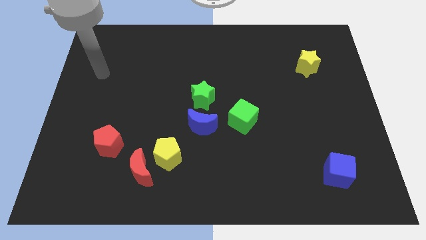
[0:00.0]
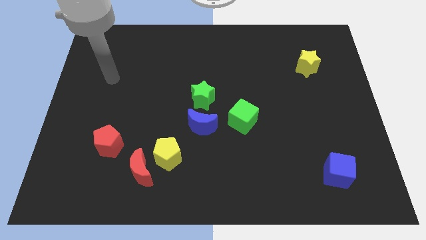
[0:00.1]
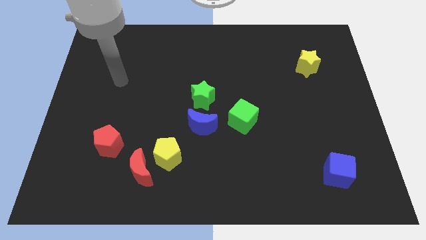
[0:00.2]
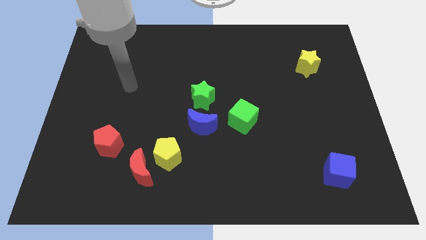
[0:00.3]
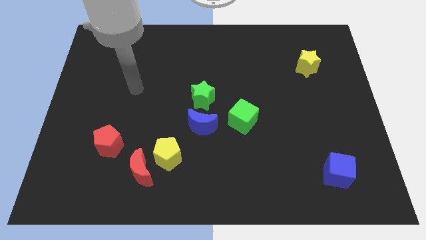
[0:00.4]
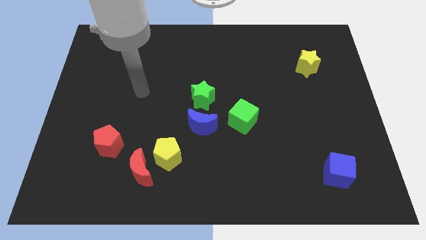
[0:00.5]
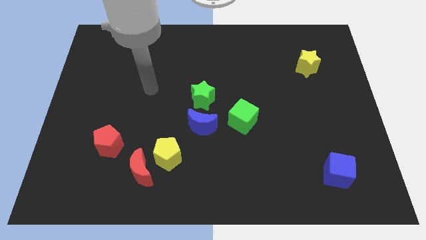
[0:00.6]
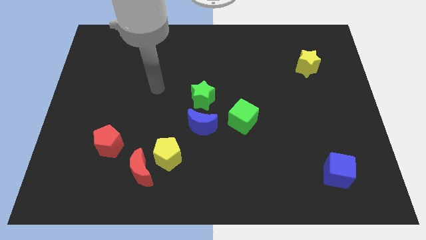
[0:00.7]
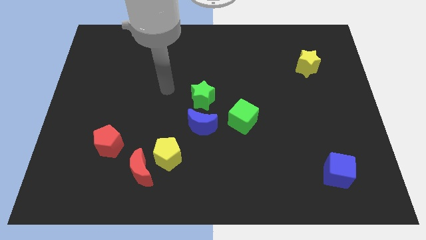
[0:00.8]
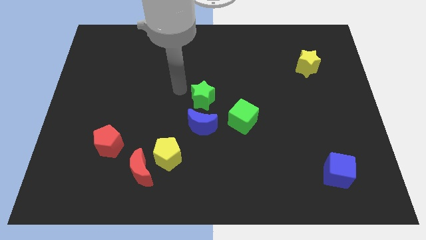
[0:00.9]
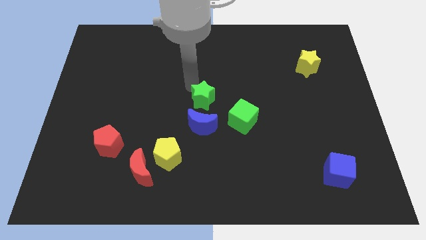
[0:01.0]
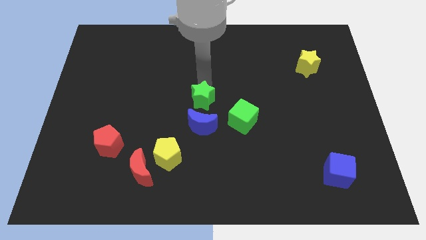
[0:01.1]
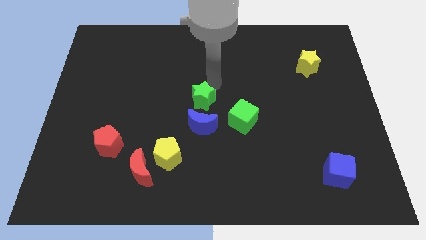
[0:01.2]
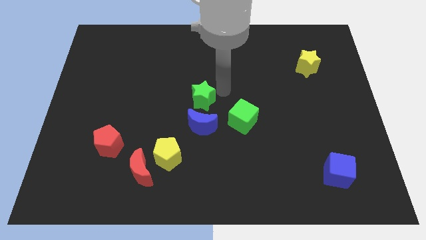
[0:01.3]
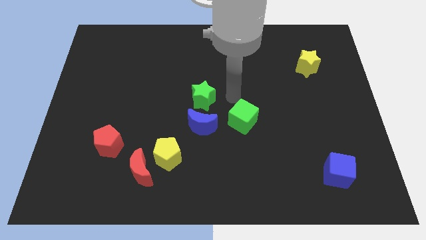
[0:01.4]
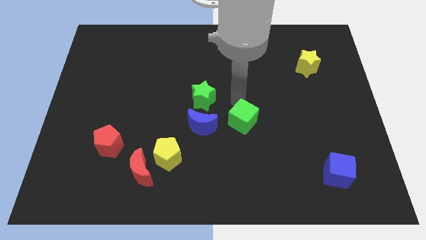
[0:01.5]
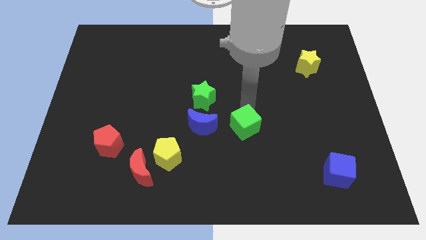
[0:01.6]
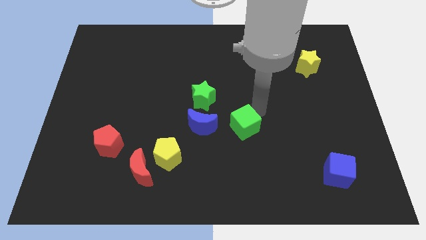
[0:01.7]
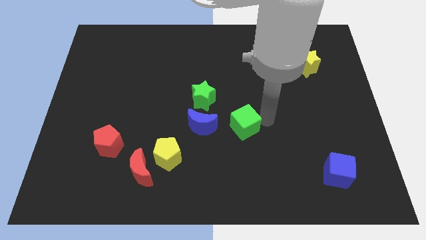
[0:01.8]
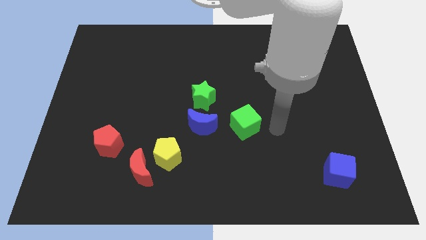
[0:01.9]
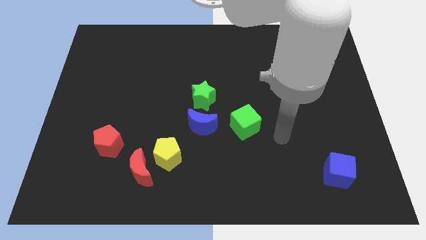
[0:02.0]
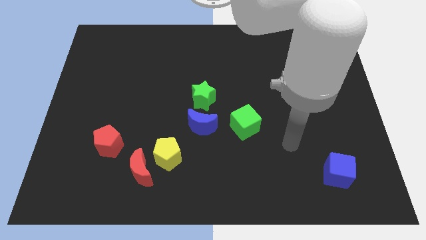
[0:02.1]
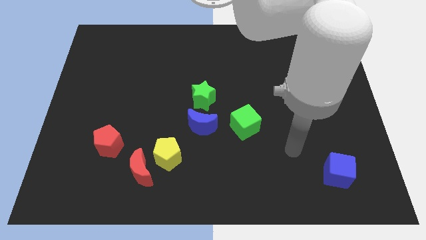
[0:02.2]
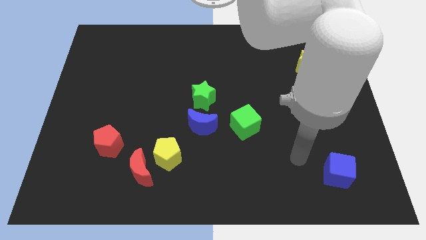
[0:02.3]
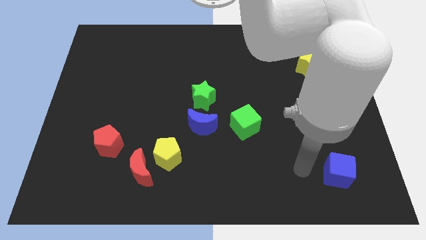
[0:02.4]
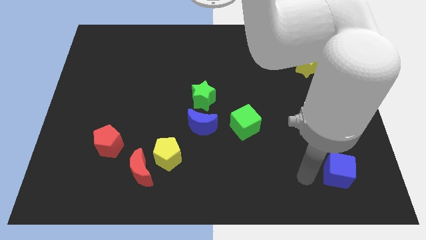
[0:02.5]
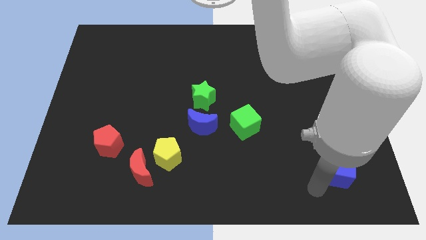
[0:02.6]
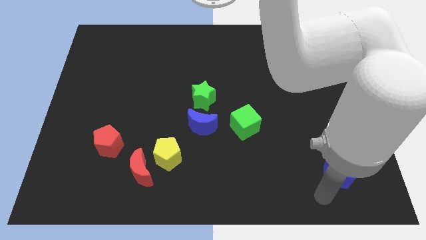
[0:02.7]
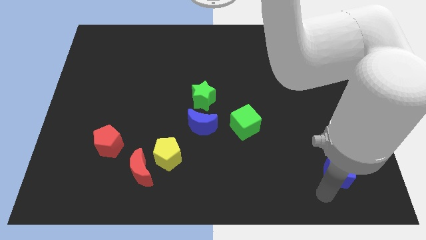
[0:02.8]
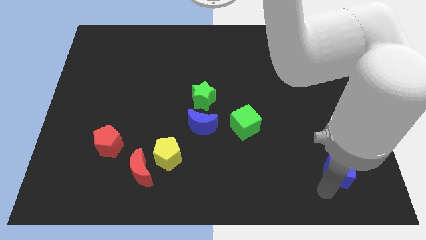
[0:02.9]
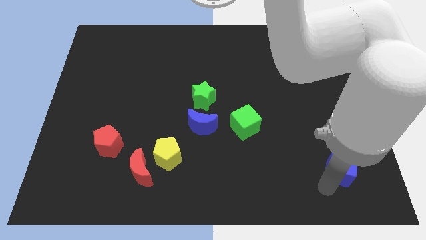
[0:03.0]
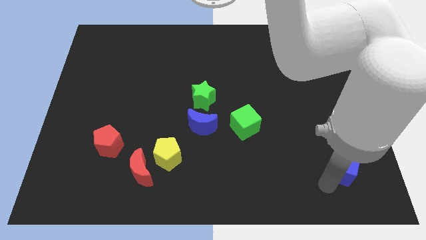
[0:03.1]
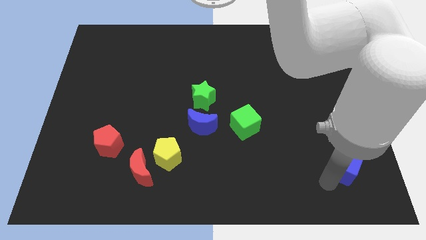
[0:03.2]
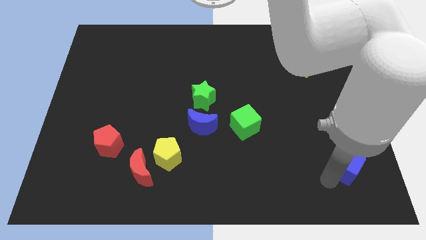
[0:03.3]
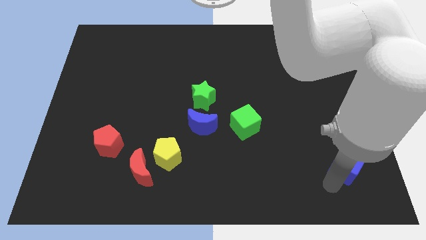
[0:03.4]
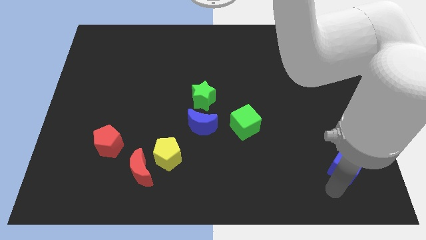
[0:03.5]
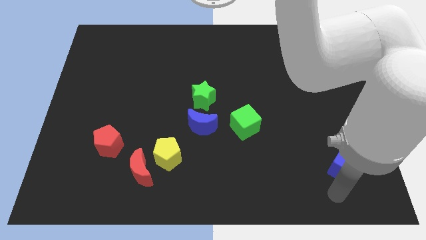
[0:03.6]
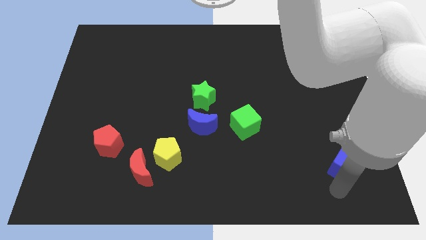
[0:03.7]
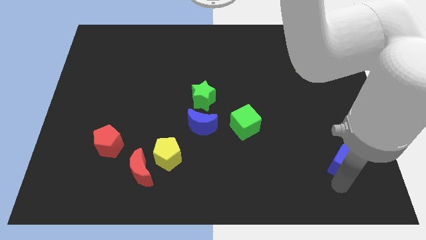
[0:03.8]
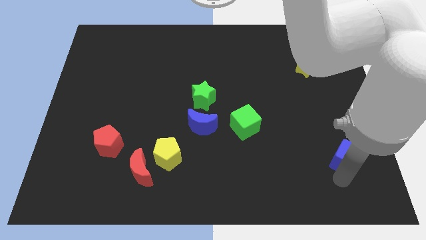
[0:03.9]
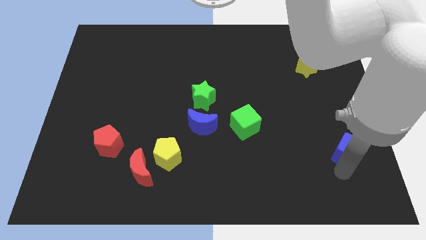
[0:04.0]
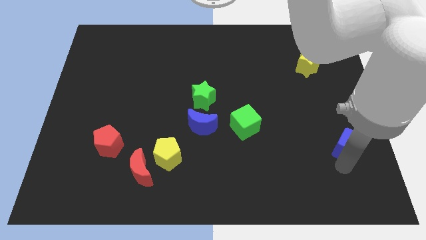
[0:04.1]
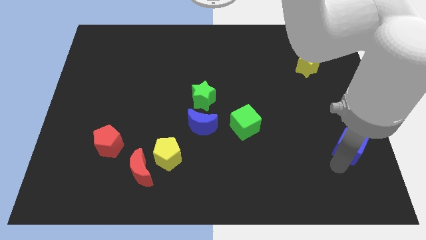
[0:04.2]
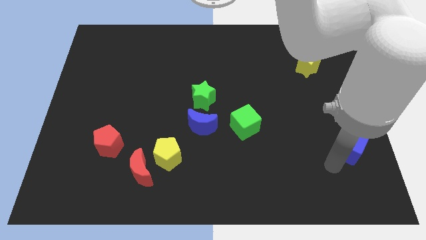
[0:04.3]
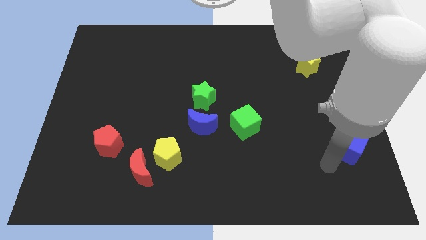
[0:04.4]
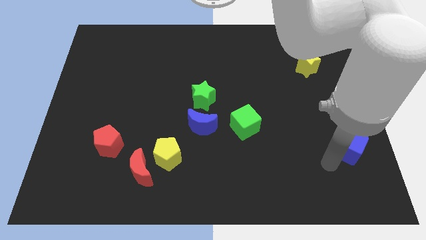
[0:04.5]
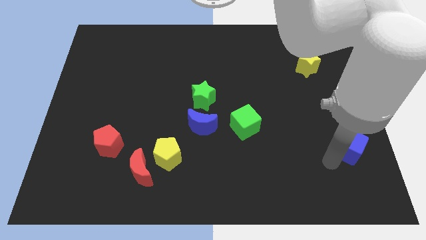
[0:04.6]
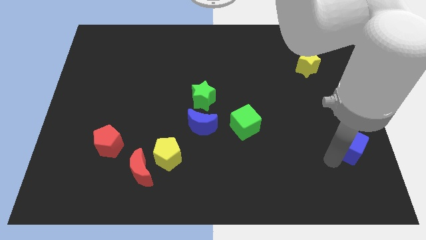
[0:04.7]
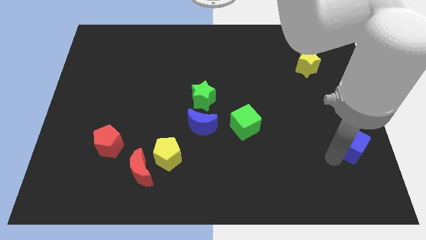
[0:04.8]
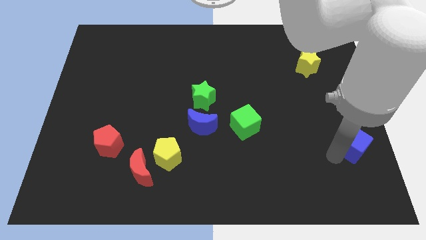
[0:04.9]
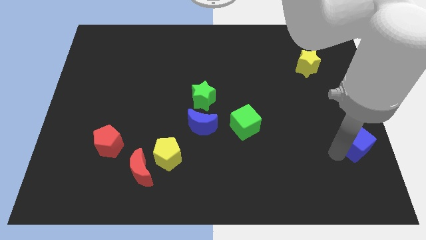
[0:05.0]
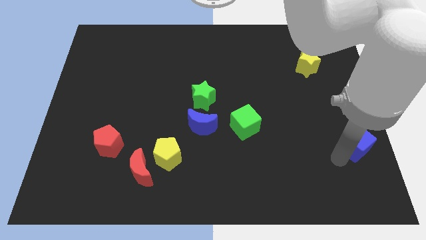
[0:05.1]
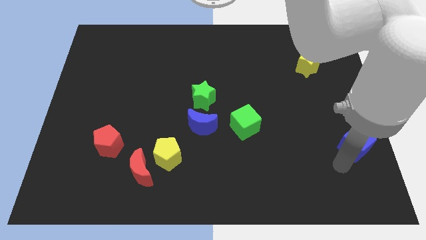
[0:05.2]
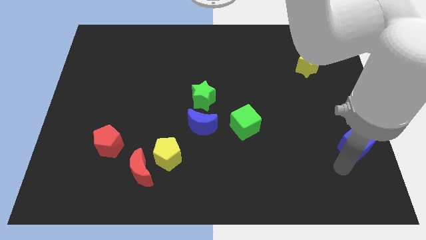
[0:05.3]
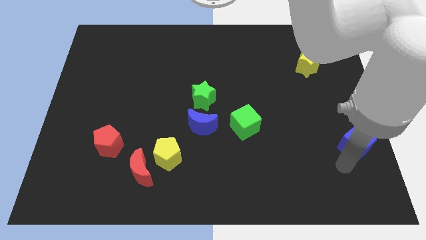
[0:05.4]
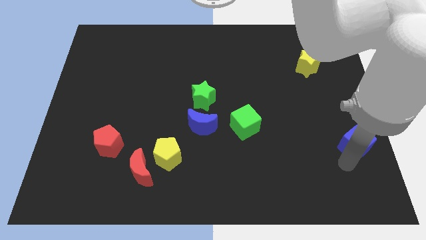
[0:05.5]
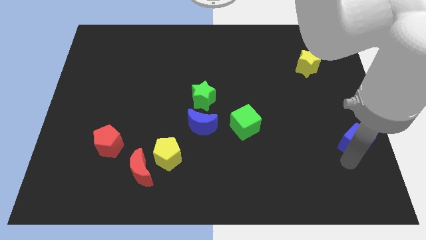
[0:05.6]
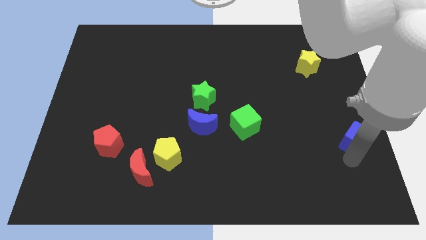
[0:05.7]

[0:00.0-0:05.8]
put the blue cube to the center right
